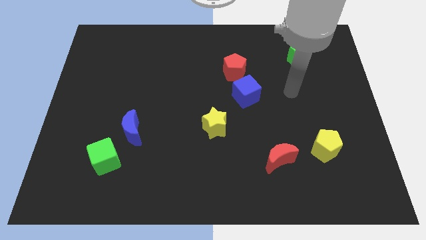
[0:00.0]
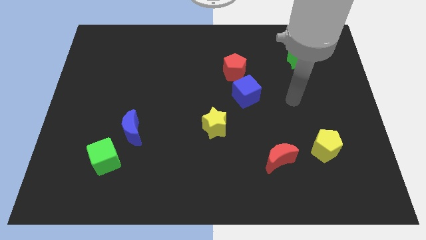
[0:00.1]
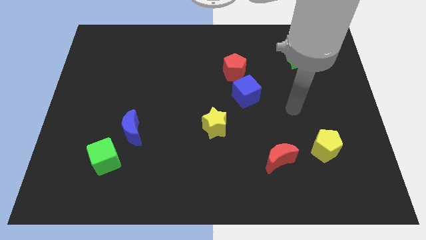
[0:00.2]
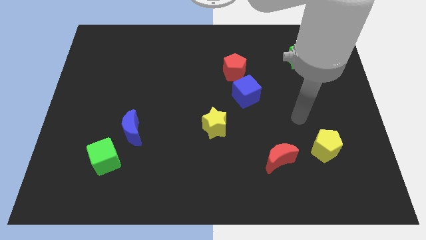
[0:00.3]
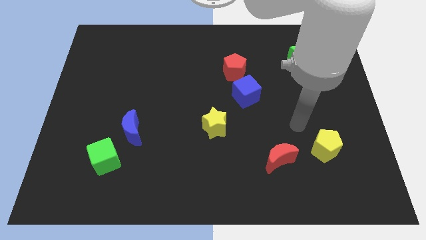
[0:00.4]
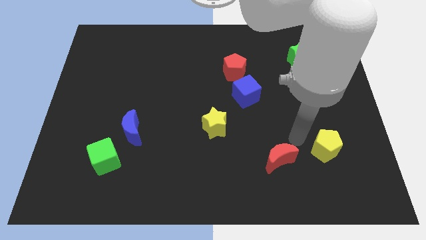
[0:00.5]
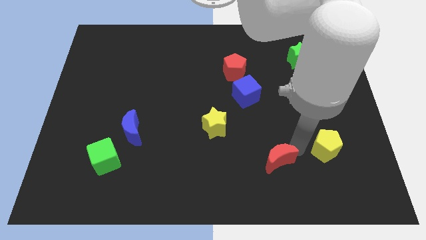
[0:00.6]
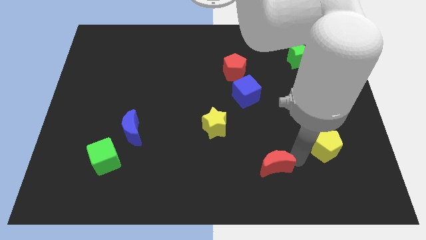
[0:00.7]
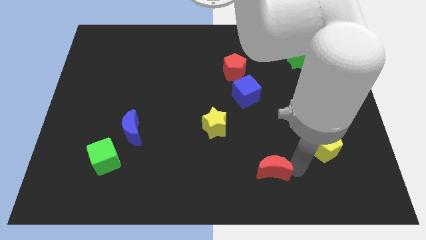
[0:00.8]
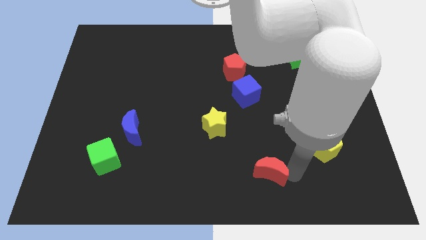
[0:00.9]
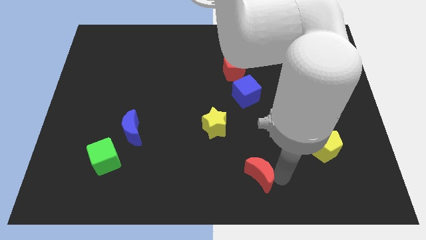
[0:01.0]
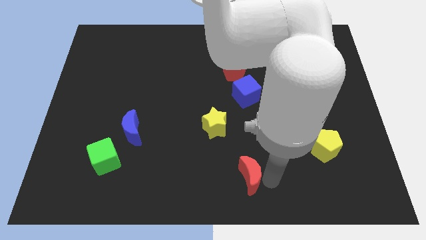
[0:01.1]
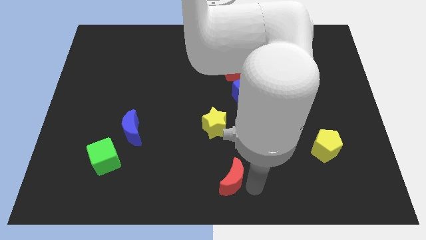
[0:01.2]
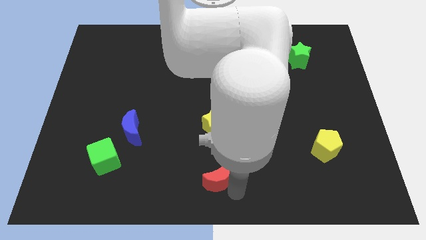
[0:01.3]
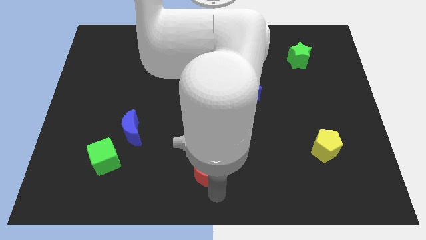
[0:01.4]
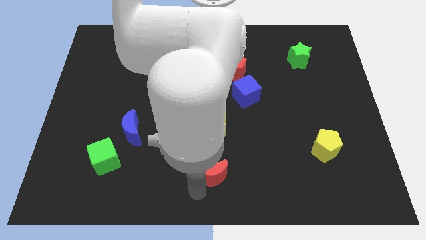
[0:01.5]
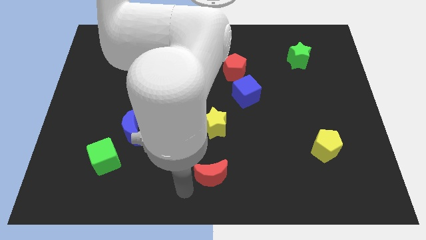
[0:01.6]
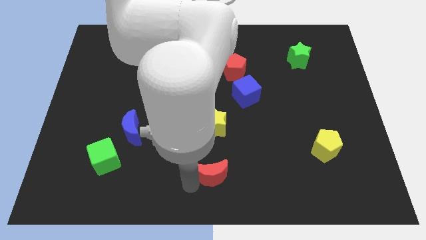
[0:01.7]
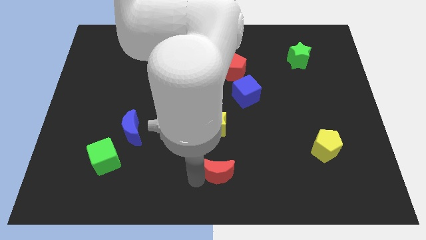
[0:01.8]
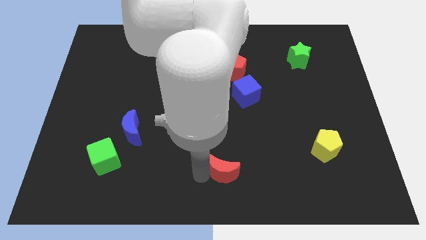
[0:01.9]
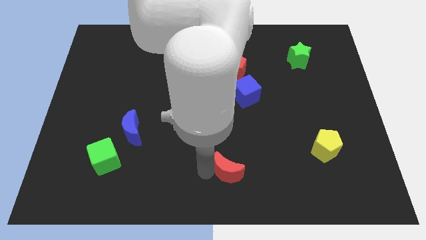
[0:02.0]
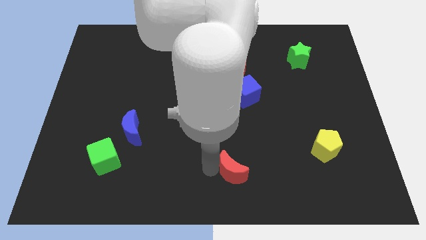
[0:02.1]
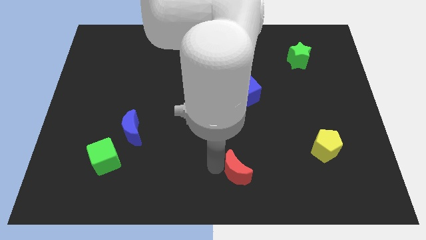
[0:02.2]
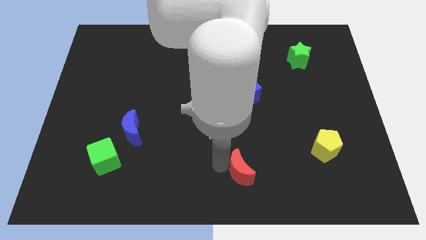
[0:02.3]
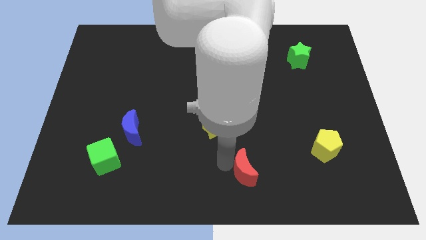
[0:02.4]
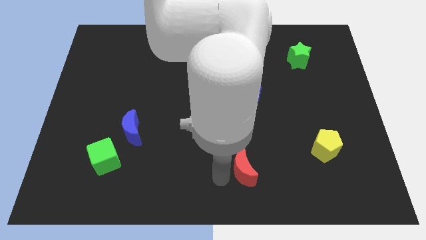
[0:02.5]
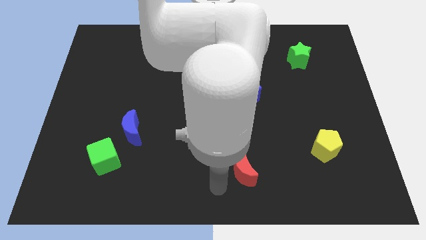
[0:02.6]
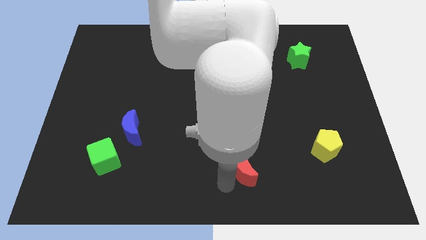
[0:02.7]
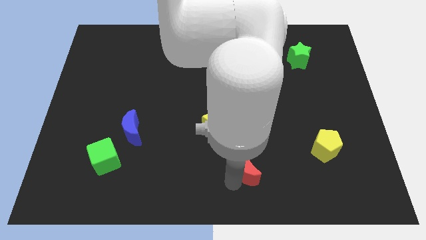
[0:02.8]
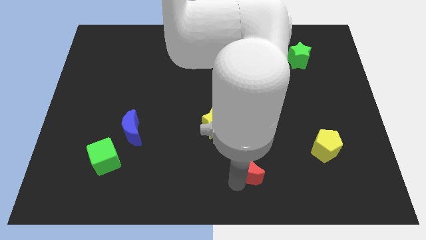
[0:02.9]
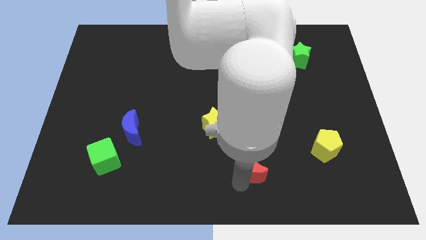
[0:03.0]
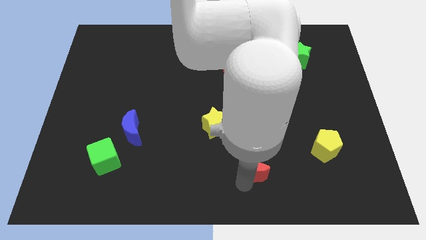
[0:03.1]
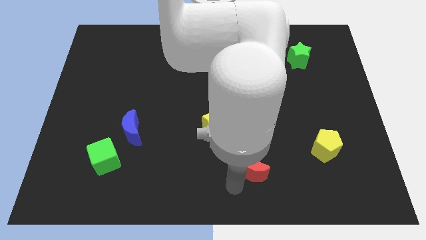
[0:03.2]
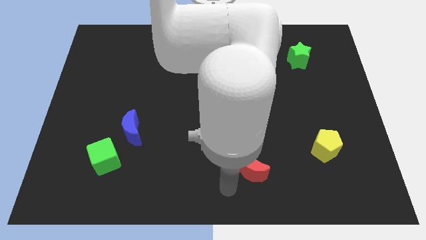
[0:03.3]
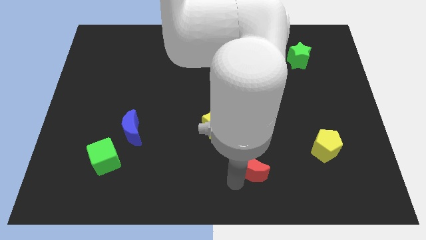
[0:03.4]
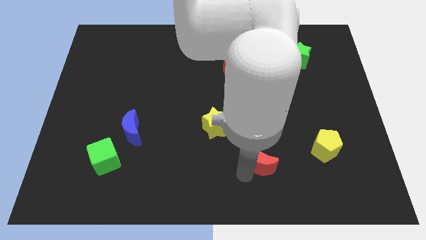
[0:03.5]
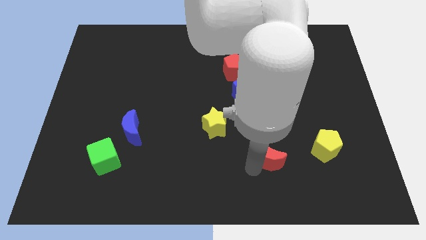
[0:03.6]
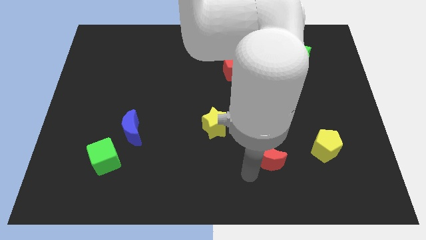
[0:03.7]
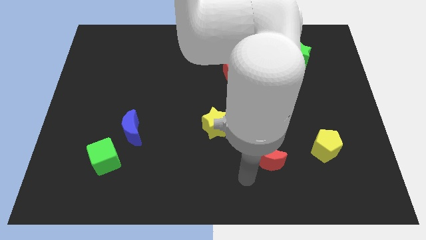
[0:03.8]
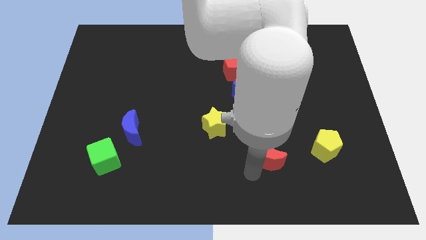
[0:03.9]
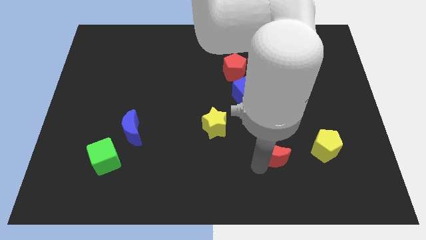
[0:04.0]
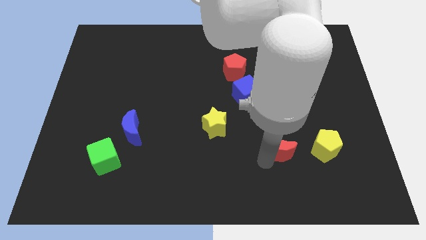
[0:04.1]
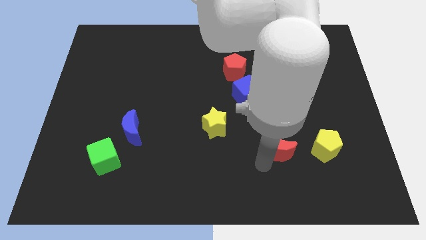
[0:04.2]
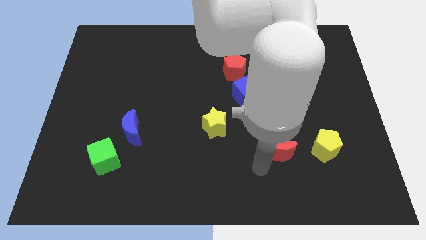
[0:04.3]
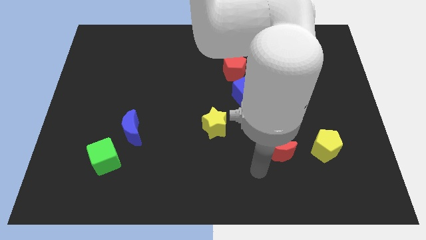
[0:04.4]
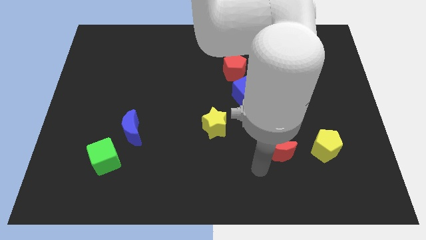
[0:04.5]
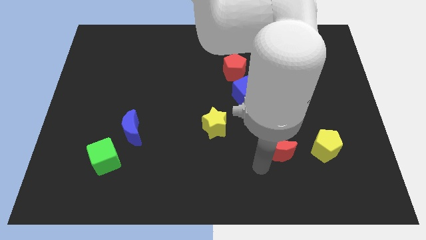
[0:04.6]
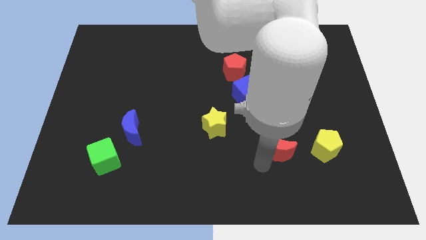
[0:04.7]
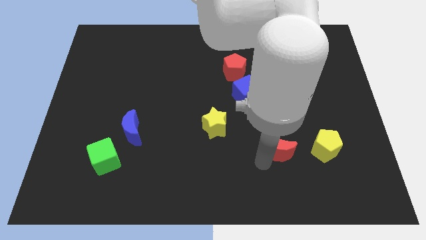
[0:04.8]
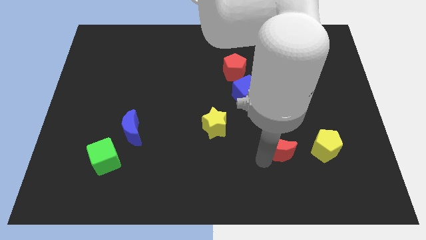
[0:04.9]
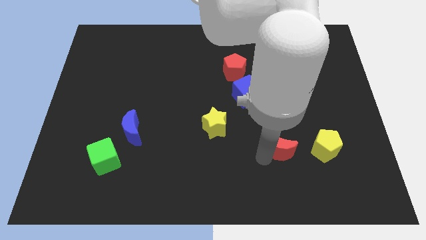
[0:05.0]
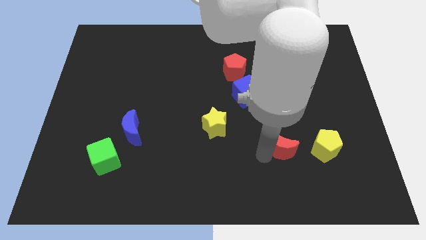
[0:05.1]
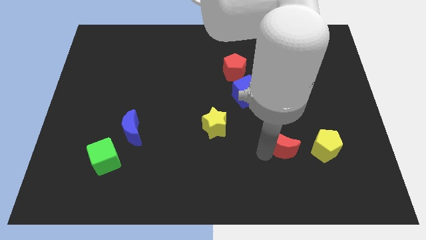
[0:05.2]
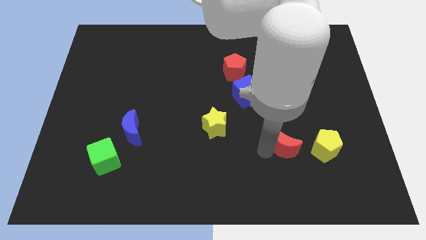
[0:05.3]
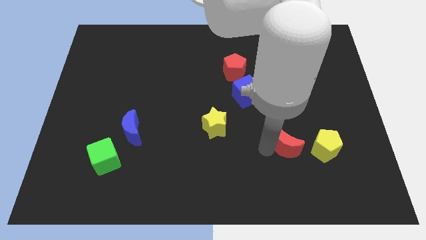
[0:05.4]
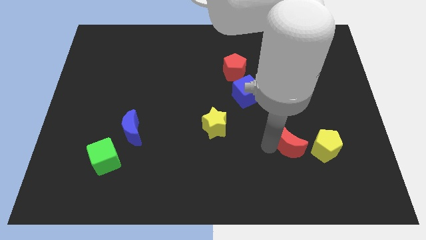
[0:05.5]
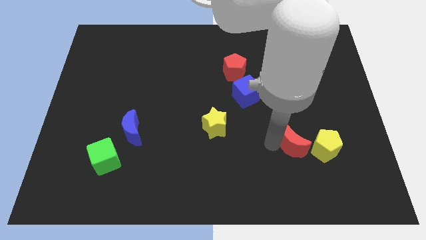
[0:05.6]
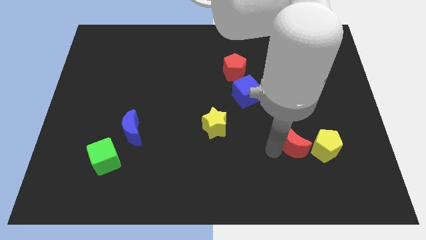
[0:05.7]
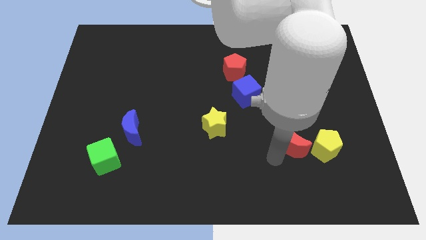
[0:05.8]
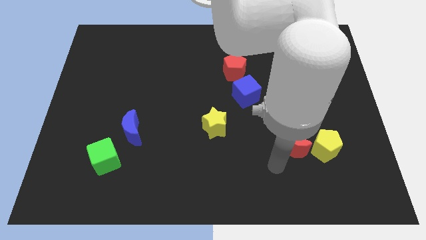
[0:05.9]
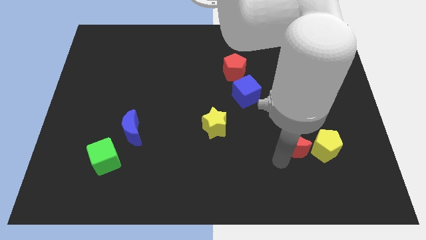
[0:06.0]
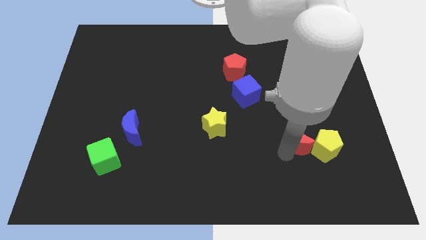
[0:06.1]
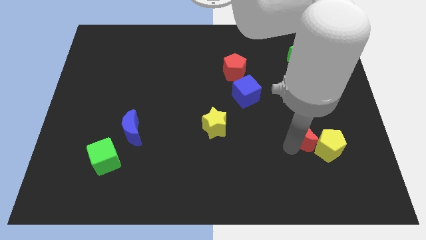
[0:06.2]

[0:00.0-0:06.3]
slide the red moon upwards and right diagonally a little bit

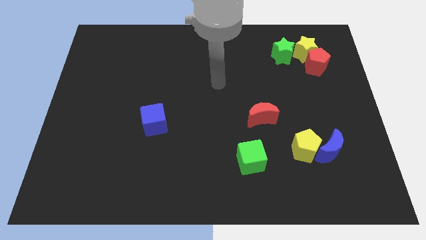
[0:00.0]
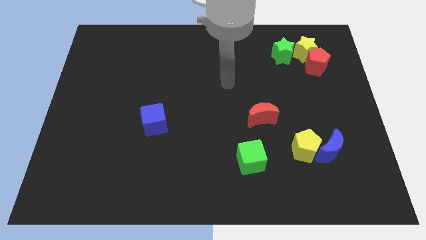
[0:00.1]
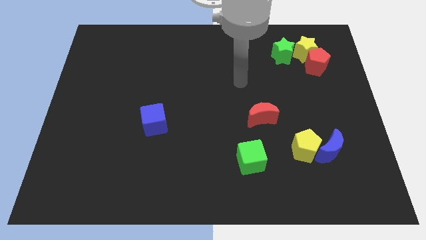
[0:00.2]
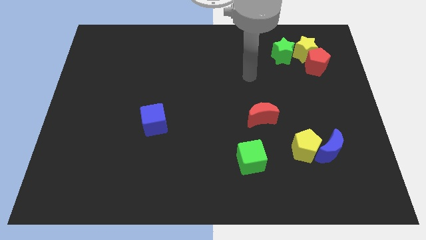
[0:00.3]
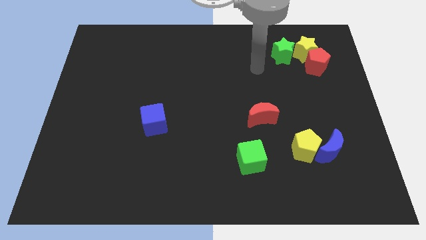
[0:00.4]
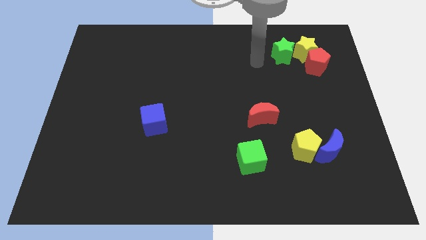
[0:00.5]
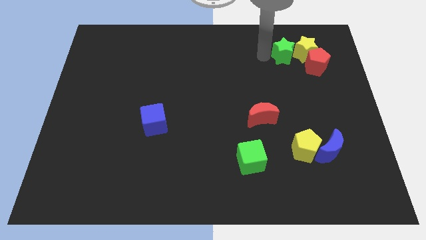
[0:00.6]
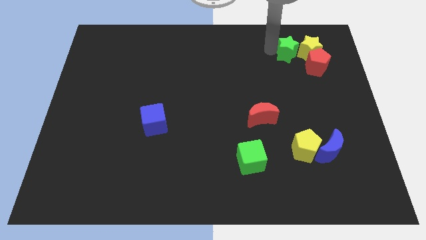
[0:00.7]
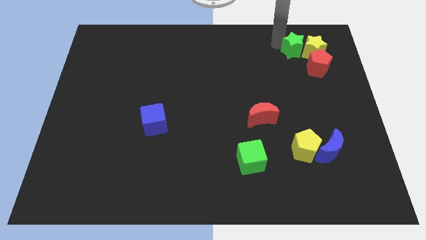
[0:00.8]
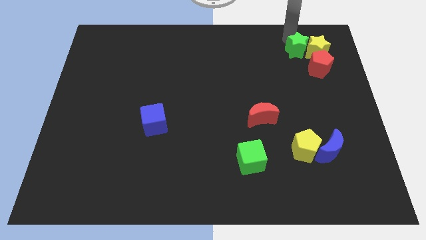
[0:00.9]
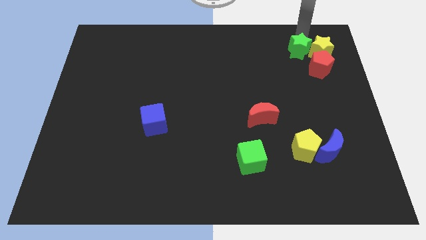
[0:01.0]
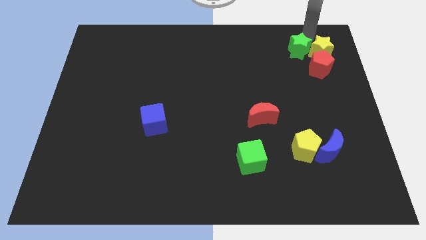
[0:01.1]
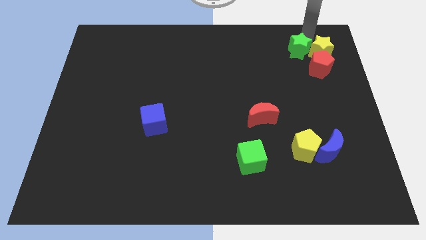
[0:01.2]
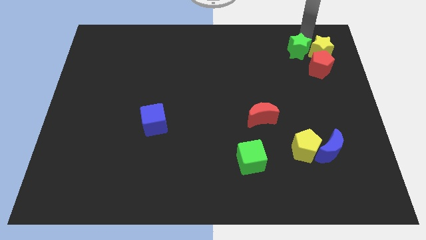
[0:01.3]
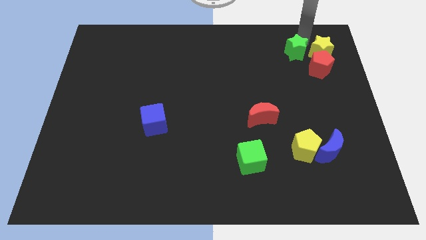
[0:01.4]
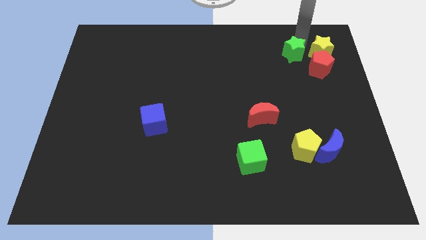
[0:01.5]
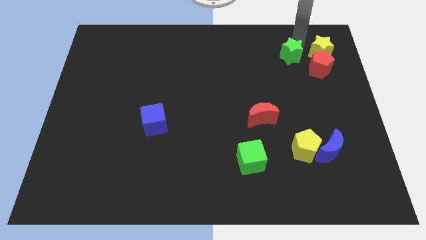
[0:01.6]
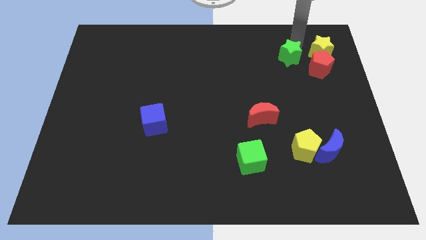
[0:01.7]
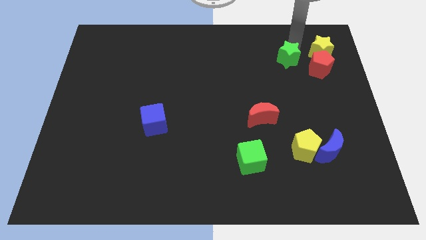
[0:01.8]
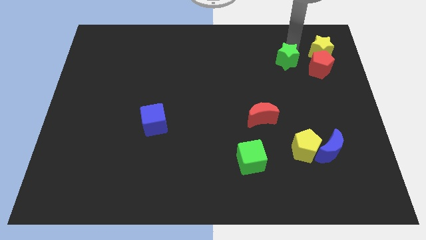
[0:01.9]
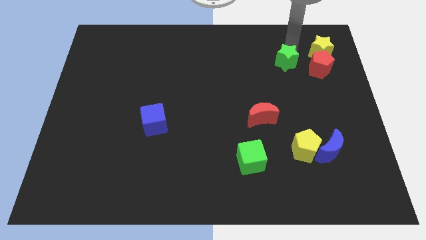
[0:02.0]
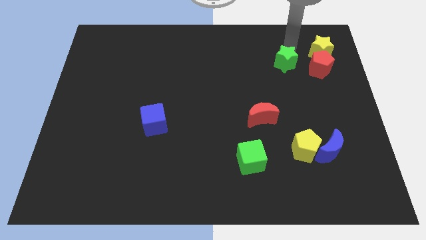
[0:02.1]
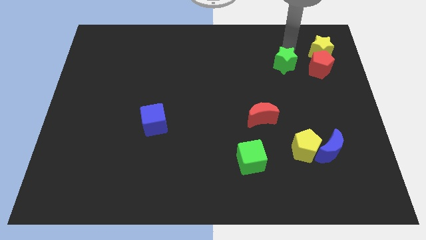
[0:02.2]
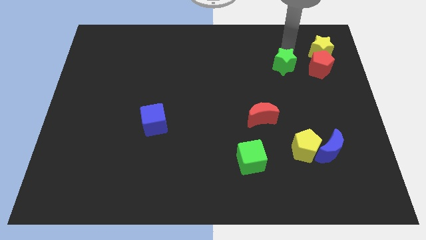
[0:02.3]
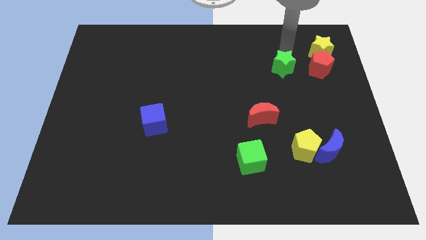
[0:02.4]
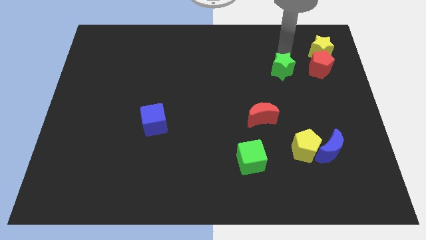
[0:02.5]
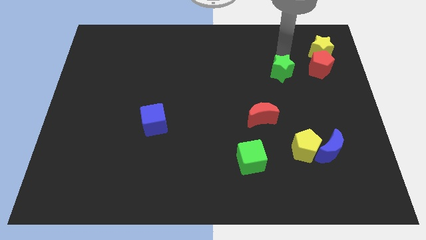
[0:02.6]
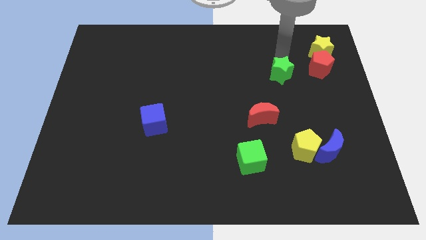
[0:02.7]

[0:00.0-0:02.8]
slightly push the green star down
